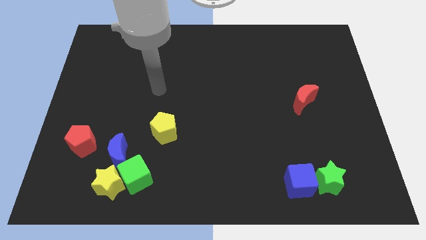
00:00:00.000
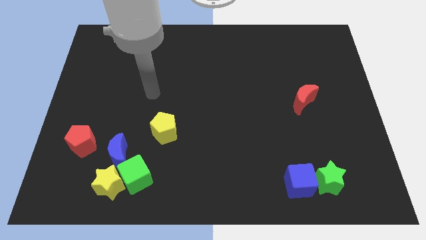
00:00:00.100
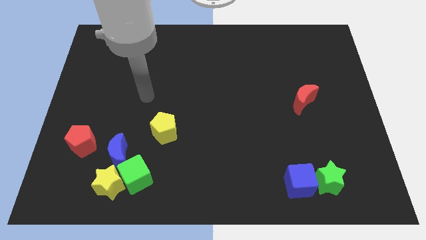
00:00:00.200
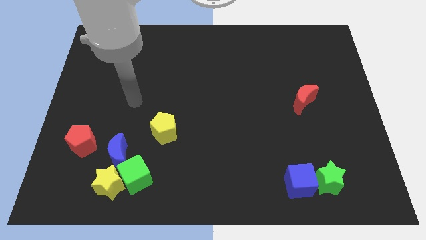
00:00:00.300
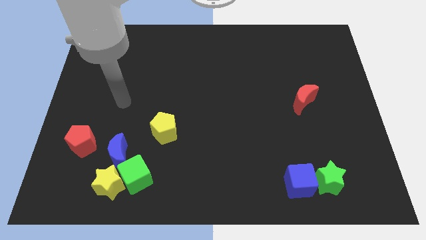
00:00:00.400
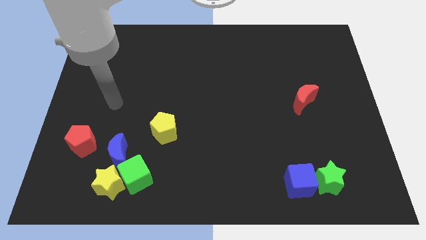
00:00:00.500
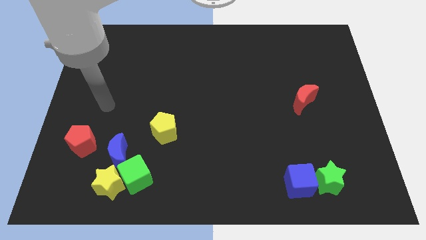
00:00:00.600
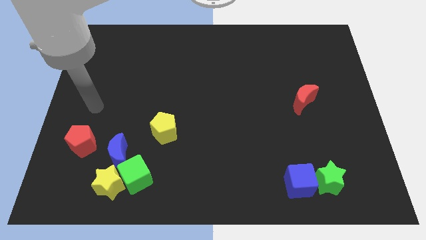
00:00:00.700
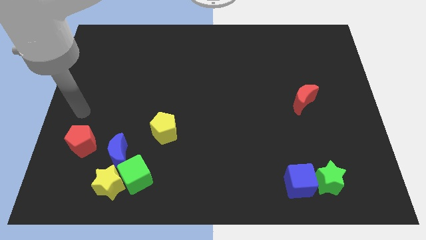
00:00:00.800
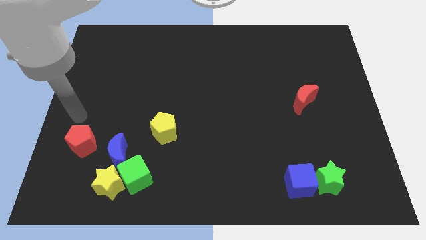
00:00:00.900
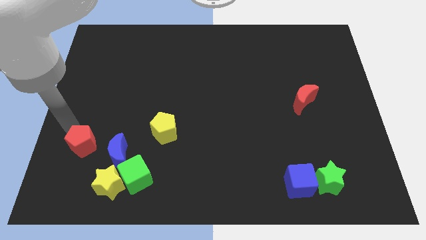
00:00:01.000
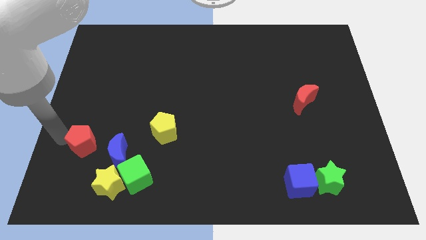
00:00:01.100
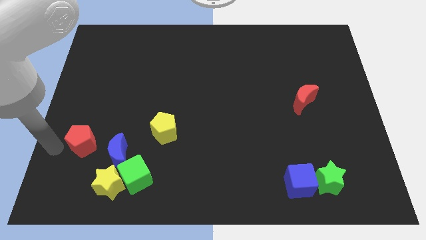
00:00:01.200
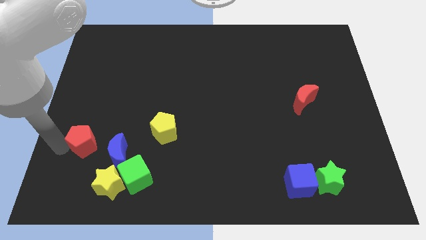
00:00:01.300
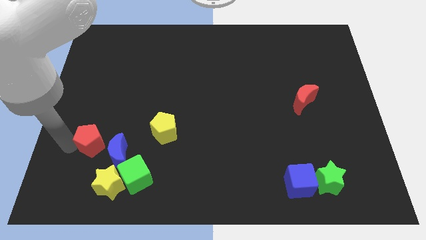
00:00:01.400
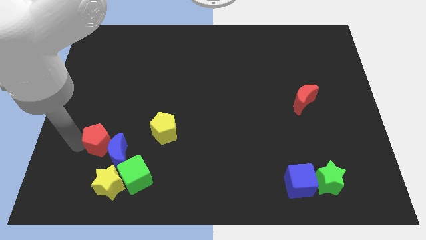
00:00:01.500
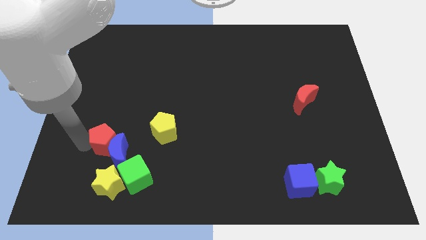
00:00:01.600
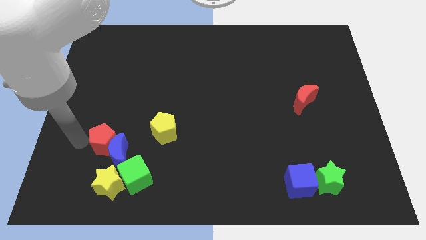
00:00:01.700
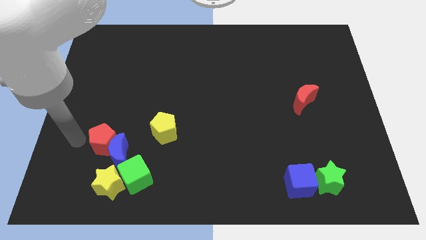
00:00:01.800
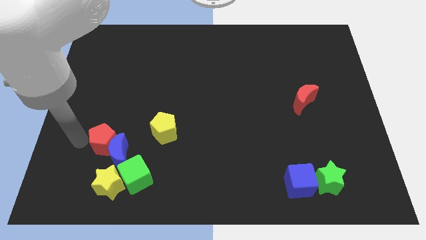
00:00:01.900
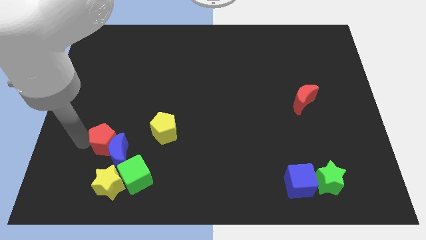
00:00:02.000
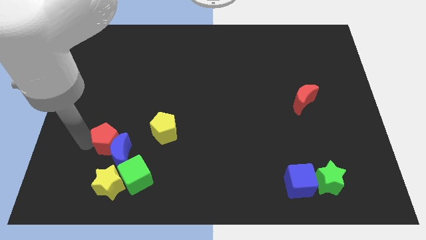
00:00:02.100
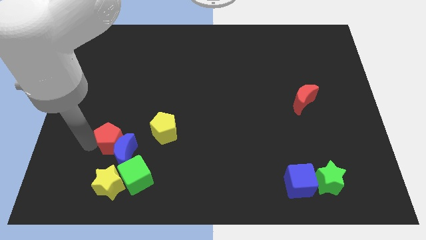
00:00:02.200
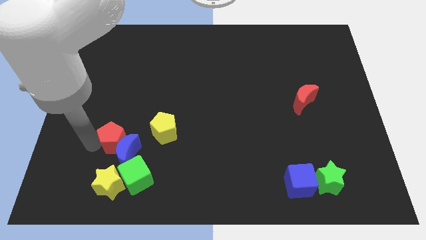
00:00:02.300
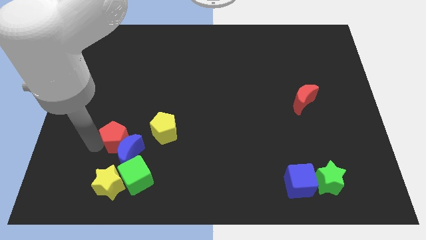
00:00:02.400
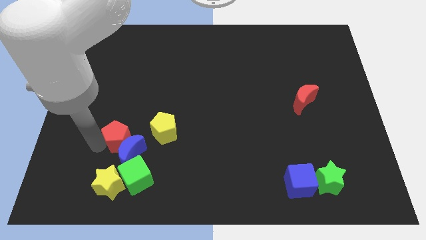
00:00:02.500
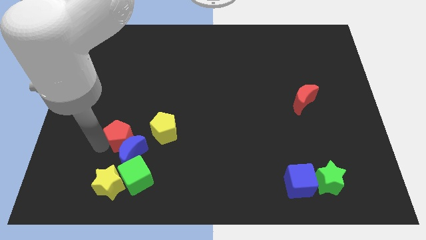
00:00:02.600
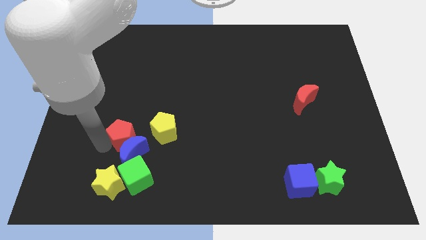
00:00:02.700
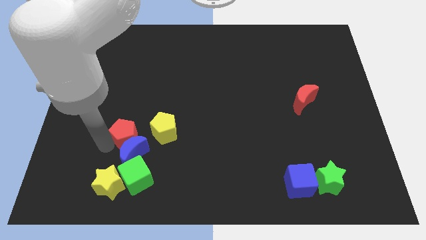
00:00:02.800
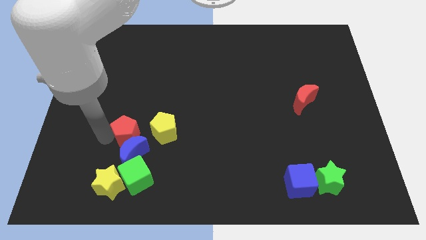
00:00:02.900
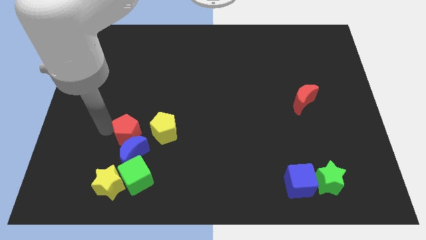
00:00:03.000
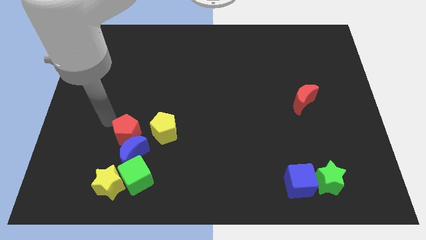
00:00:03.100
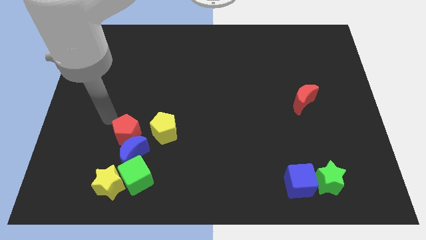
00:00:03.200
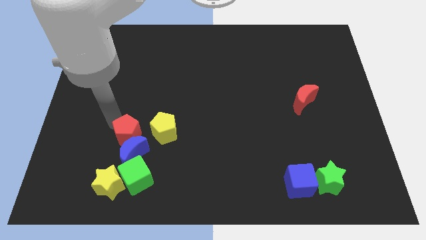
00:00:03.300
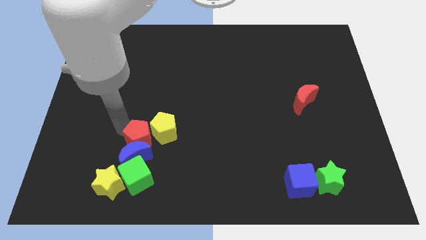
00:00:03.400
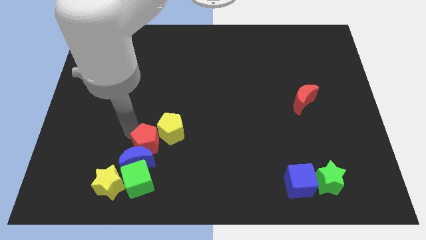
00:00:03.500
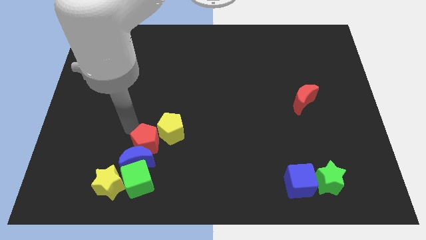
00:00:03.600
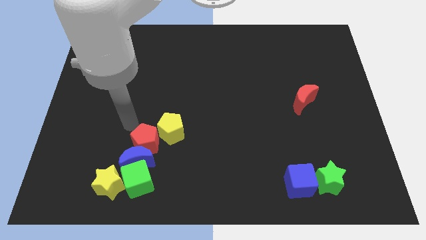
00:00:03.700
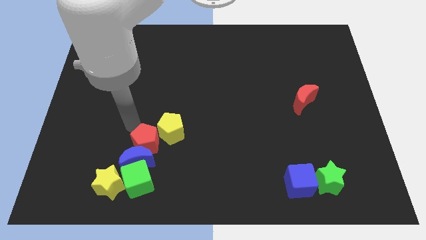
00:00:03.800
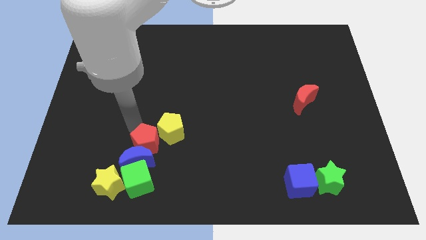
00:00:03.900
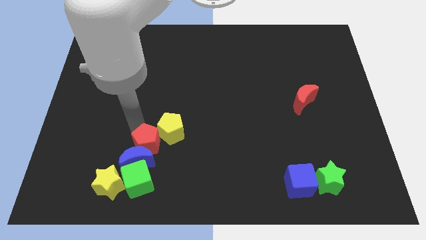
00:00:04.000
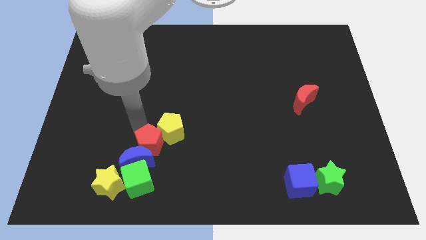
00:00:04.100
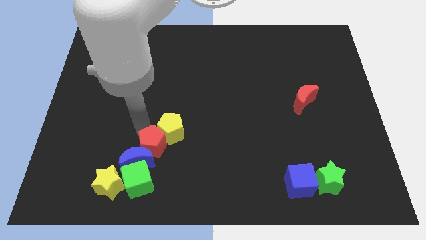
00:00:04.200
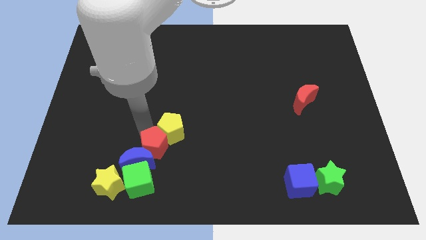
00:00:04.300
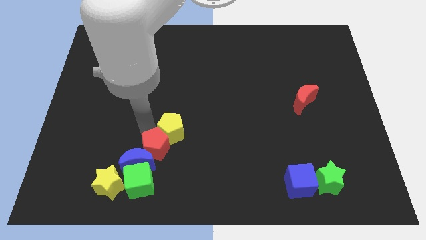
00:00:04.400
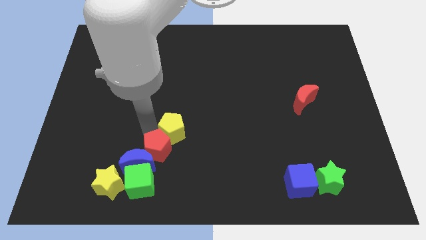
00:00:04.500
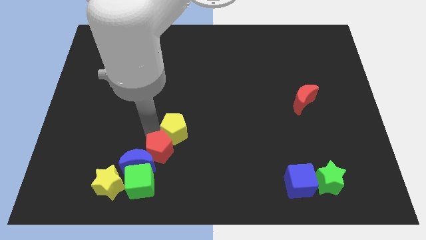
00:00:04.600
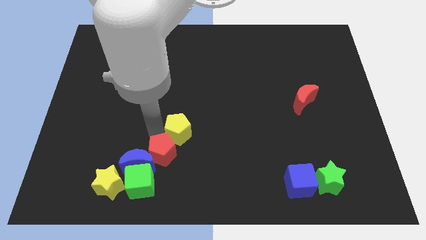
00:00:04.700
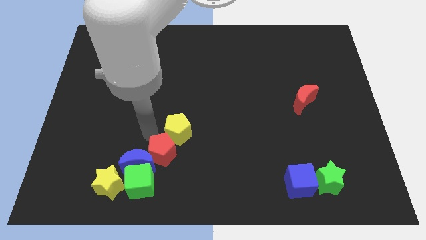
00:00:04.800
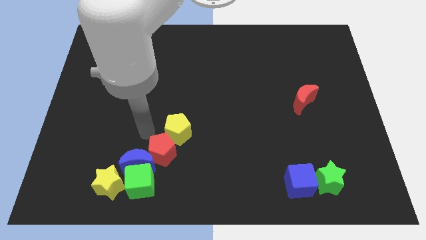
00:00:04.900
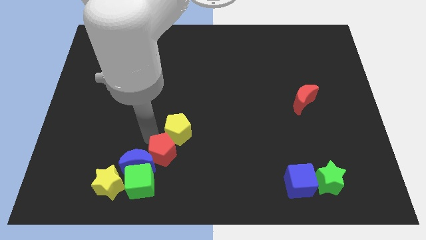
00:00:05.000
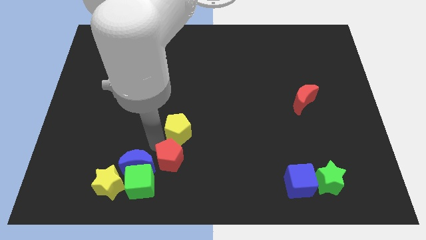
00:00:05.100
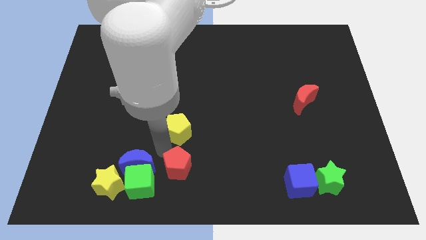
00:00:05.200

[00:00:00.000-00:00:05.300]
put the red pentagon right of the green cube

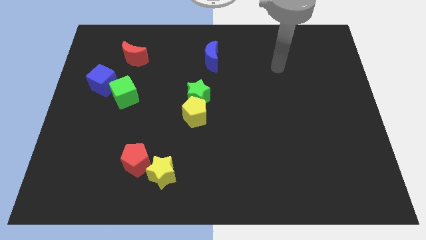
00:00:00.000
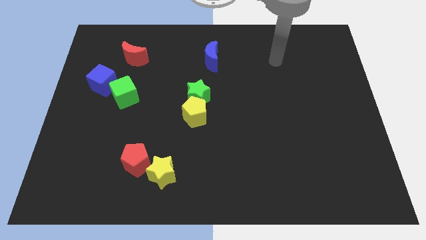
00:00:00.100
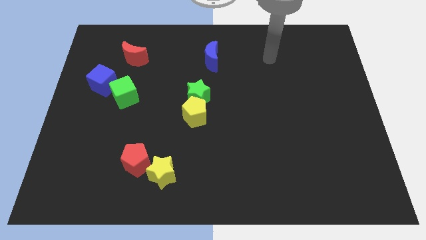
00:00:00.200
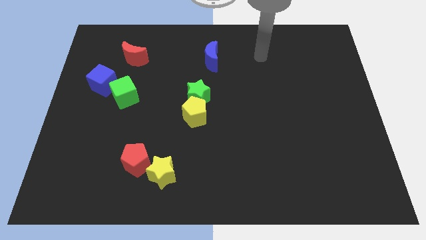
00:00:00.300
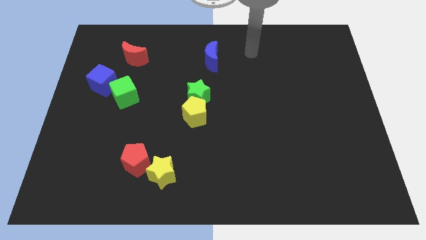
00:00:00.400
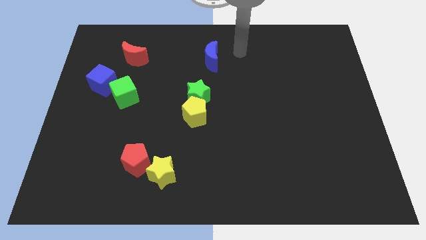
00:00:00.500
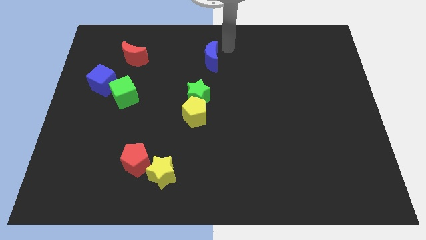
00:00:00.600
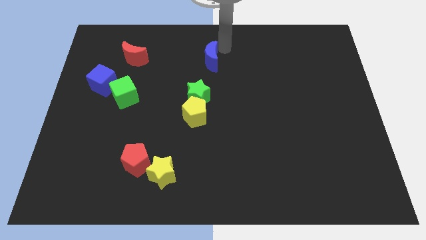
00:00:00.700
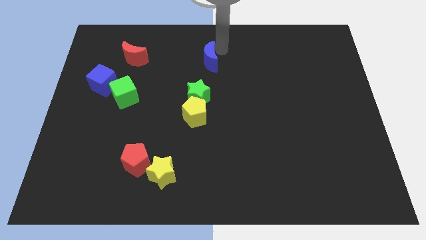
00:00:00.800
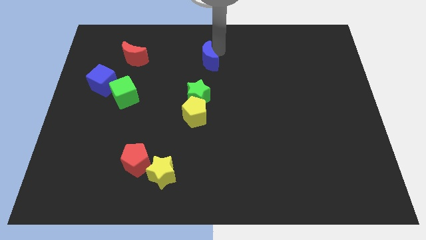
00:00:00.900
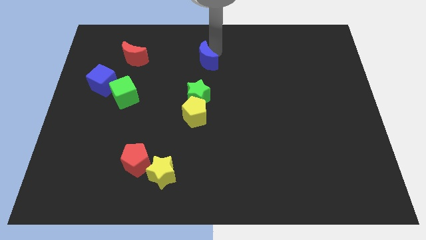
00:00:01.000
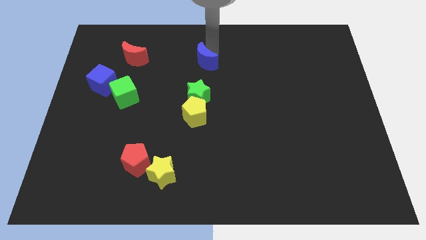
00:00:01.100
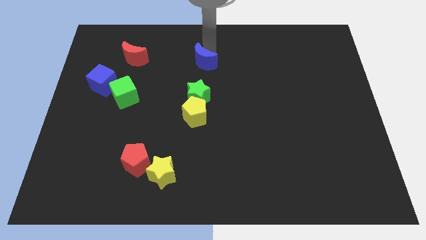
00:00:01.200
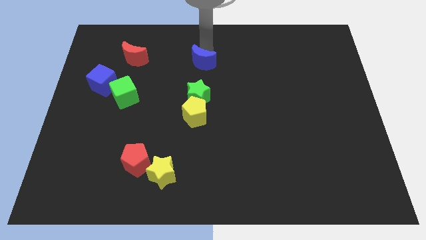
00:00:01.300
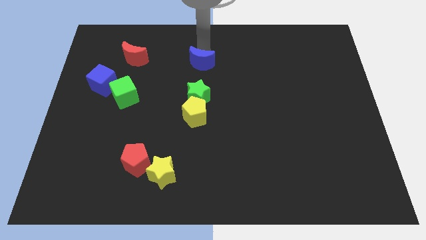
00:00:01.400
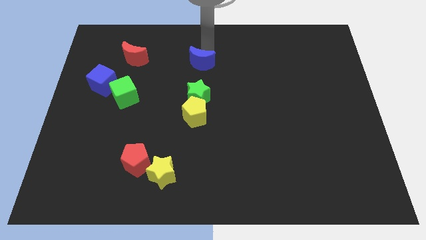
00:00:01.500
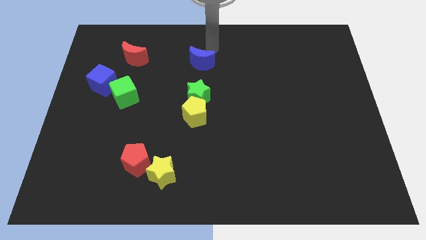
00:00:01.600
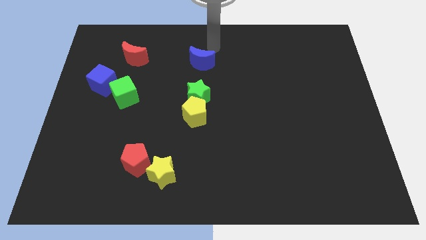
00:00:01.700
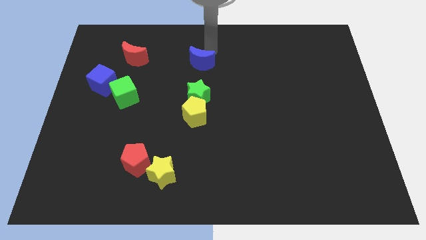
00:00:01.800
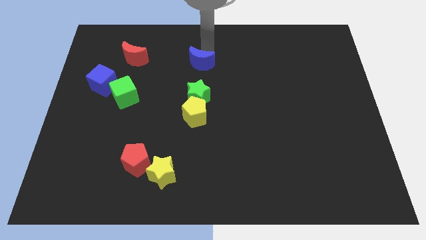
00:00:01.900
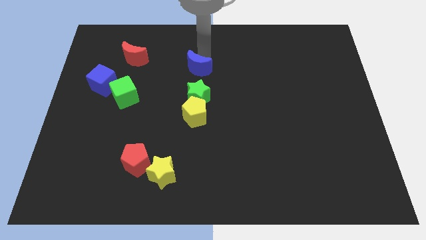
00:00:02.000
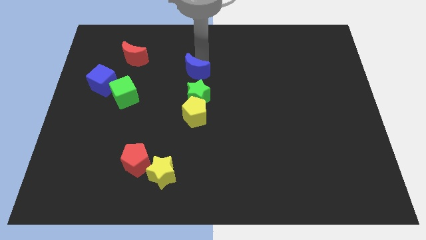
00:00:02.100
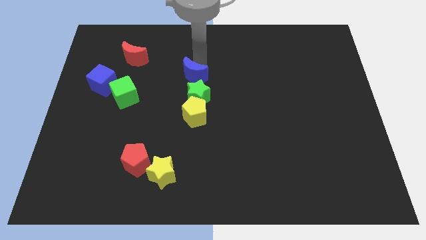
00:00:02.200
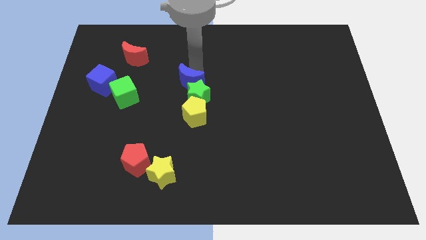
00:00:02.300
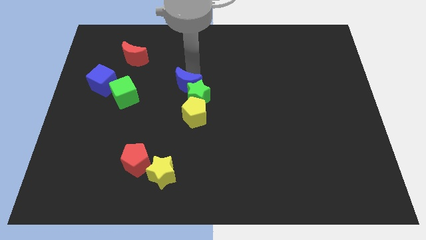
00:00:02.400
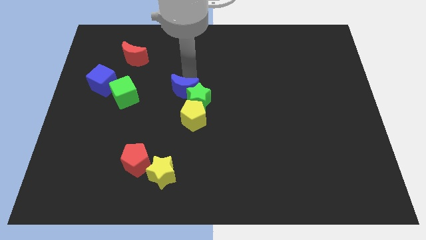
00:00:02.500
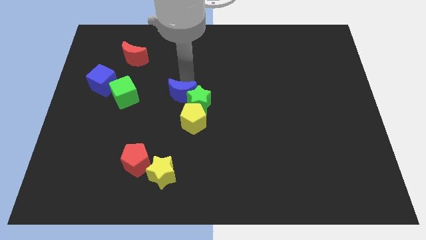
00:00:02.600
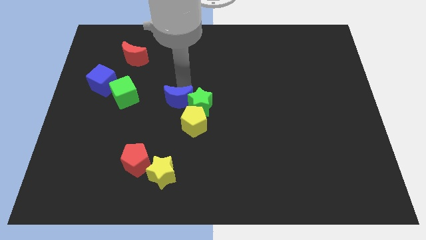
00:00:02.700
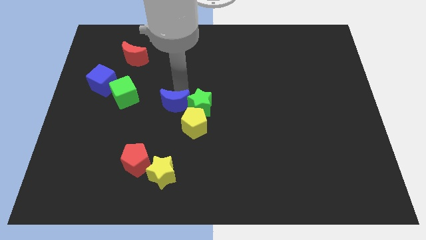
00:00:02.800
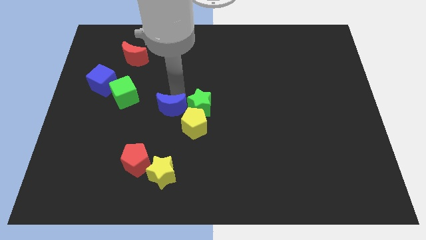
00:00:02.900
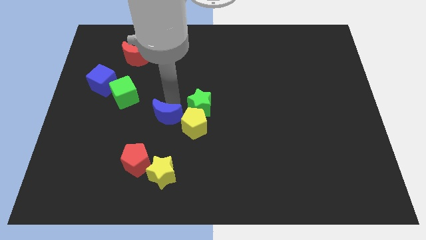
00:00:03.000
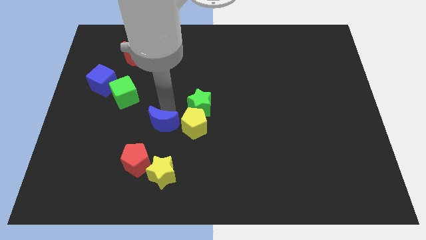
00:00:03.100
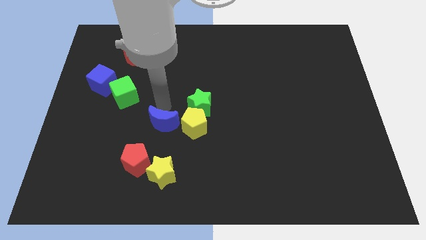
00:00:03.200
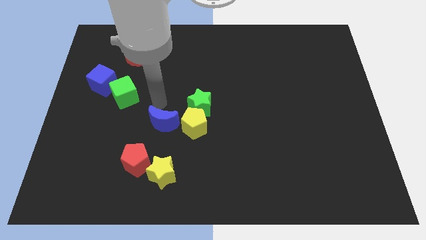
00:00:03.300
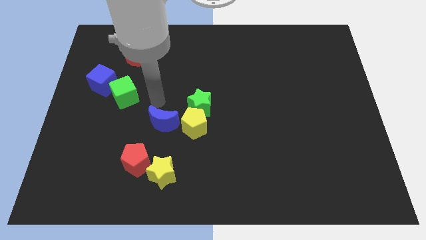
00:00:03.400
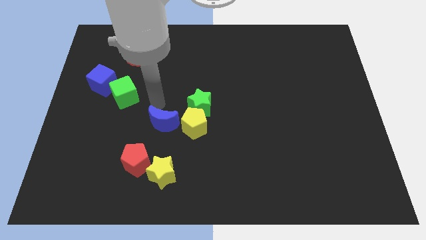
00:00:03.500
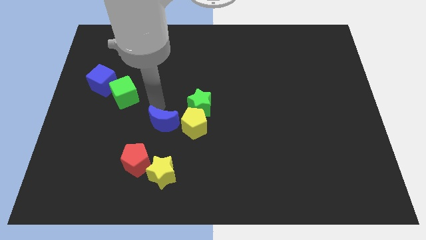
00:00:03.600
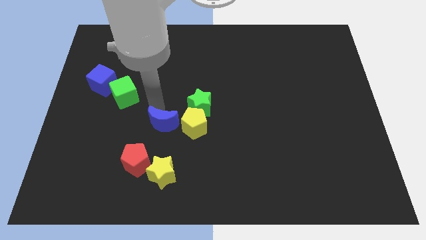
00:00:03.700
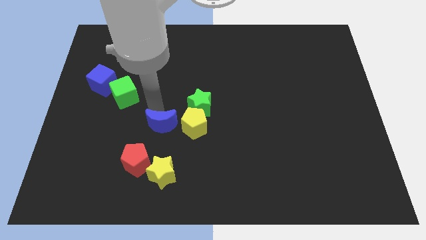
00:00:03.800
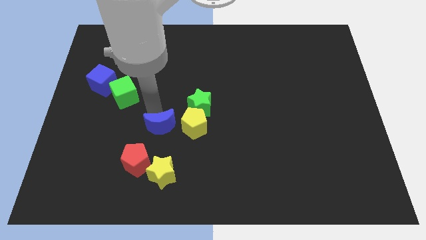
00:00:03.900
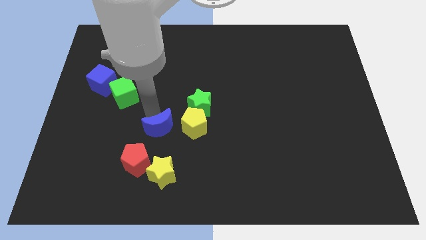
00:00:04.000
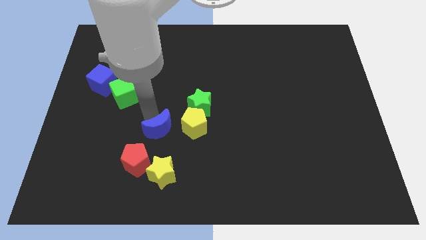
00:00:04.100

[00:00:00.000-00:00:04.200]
put the blue moon to the bottom left of the yellow pentagon
